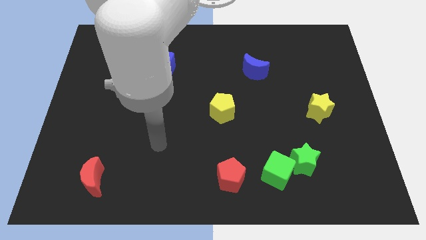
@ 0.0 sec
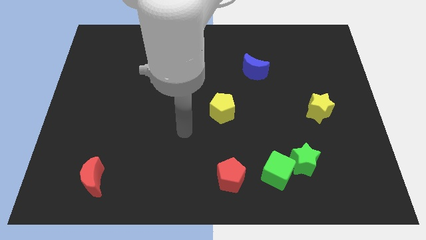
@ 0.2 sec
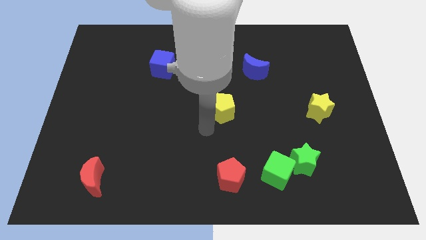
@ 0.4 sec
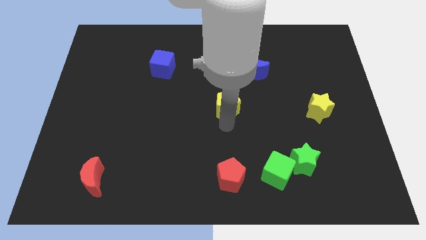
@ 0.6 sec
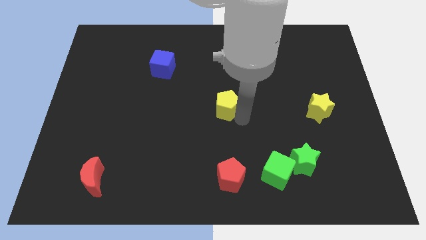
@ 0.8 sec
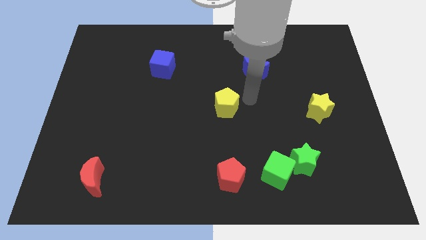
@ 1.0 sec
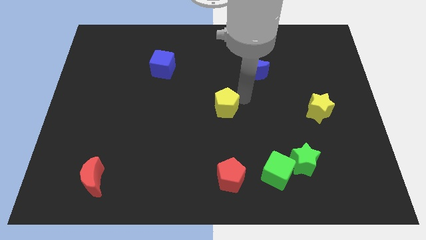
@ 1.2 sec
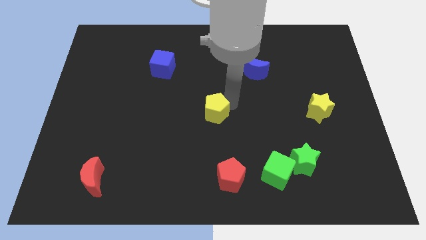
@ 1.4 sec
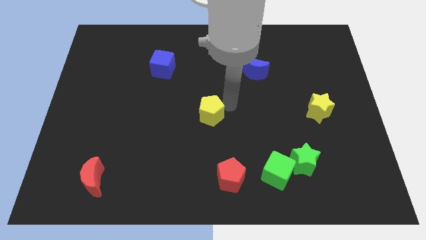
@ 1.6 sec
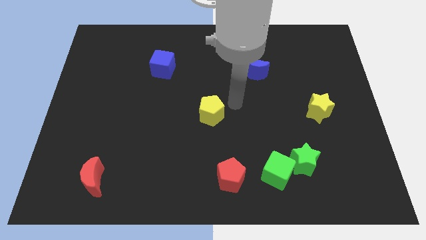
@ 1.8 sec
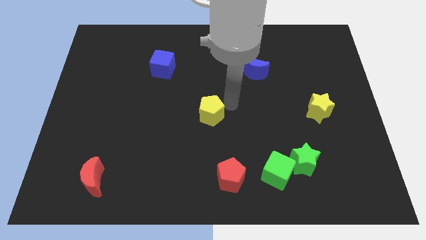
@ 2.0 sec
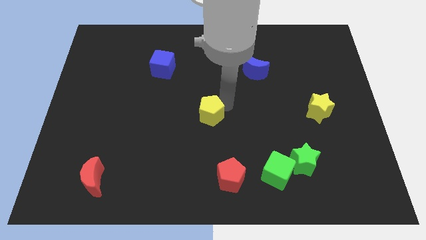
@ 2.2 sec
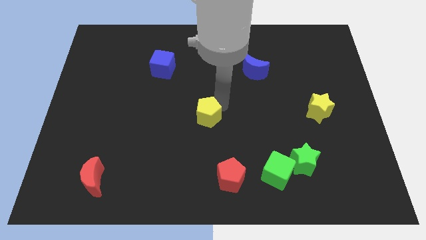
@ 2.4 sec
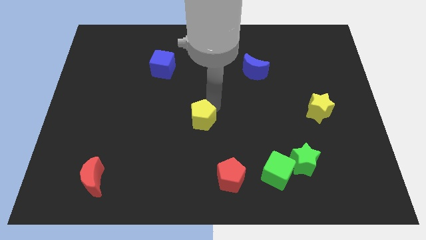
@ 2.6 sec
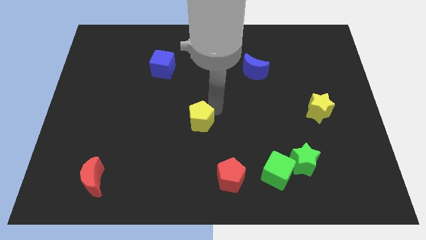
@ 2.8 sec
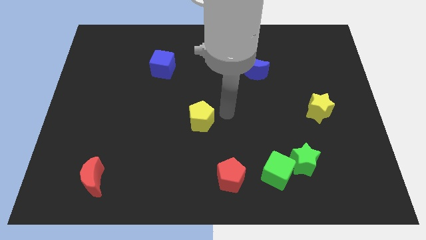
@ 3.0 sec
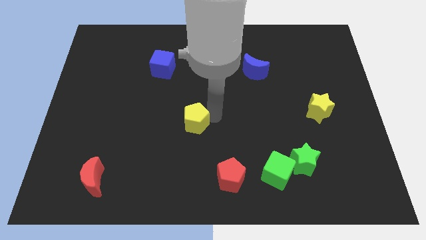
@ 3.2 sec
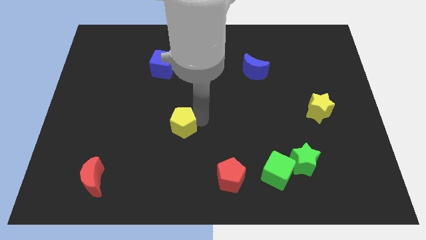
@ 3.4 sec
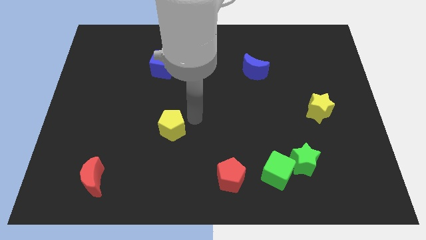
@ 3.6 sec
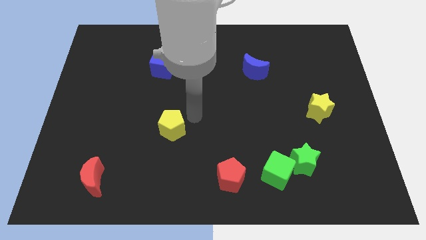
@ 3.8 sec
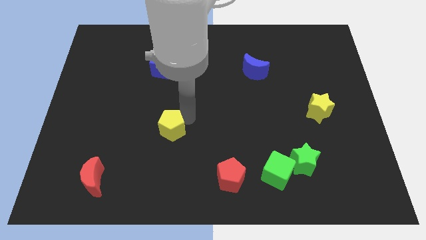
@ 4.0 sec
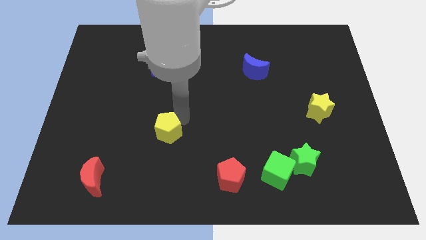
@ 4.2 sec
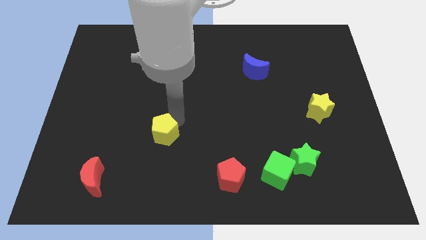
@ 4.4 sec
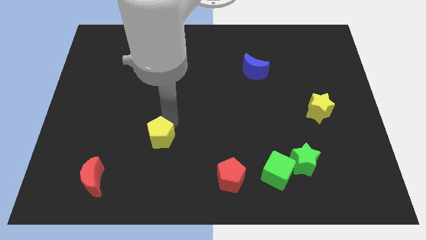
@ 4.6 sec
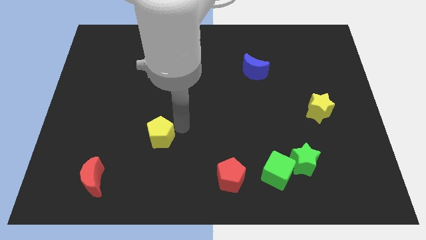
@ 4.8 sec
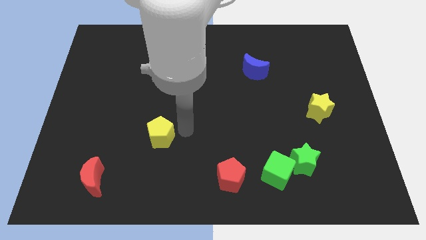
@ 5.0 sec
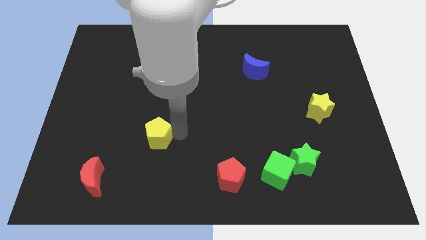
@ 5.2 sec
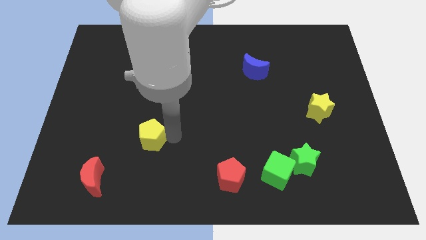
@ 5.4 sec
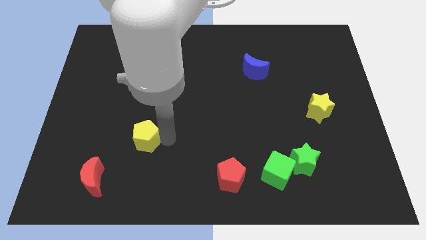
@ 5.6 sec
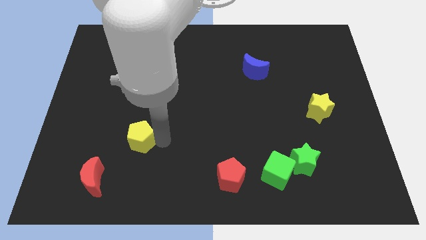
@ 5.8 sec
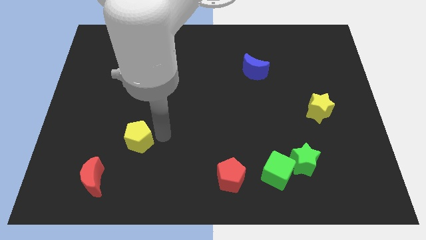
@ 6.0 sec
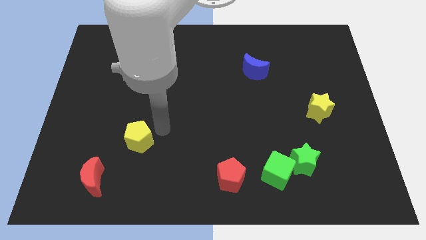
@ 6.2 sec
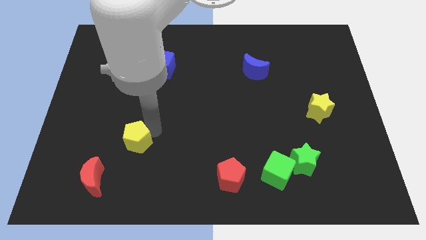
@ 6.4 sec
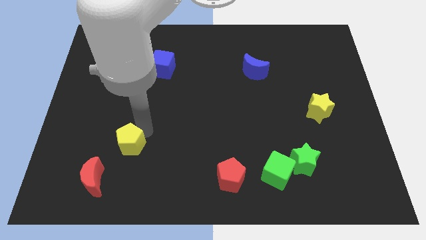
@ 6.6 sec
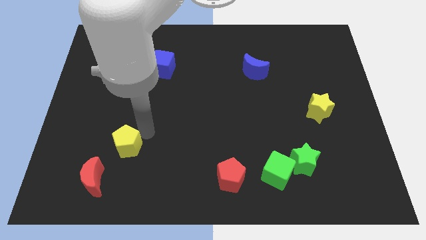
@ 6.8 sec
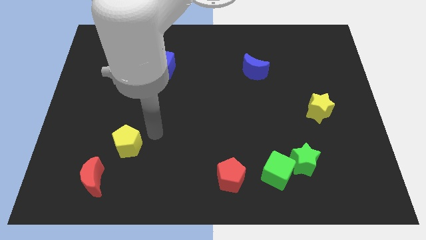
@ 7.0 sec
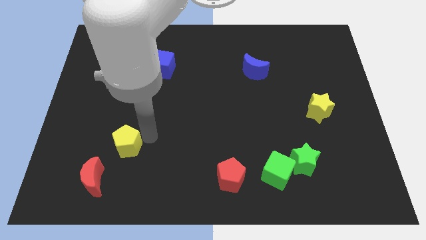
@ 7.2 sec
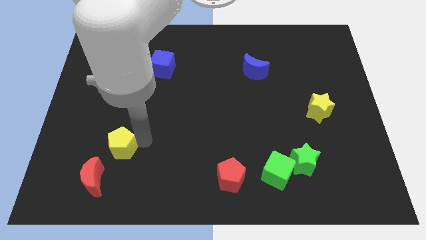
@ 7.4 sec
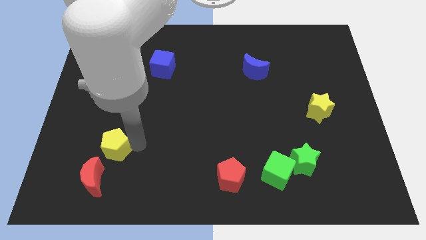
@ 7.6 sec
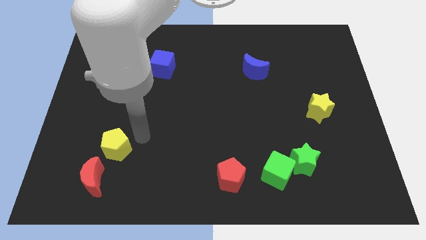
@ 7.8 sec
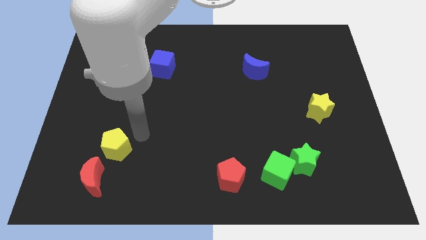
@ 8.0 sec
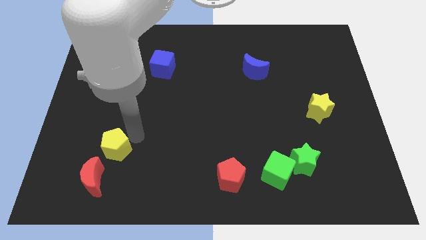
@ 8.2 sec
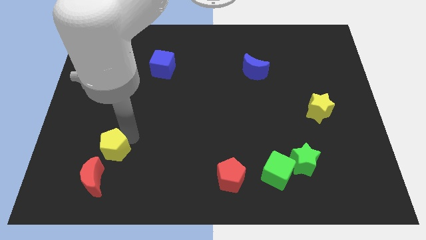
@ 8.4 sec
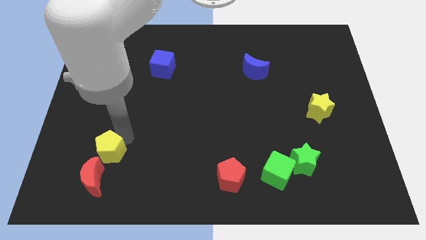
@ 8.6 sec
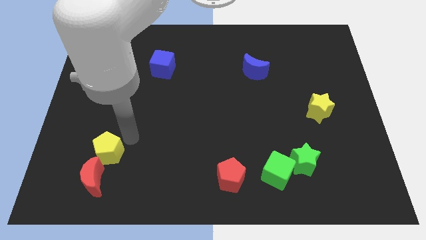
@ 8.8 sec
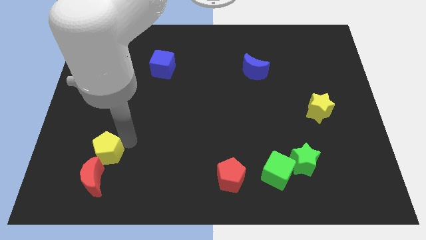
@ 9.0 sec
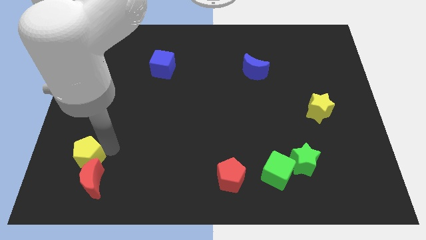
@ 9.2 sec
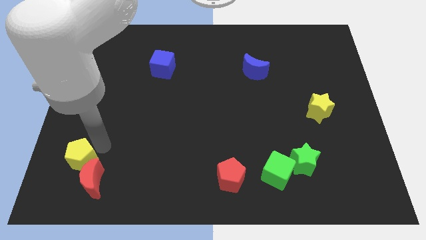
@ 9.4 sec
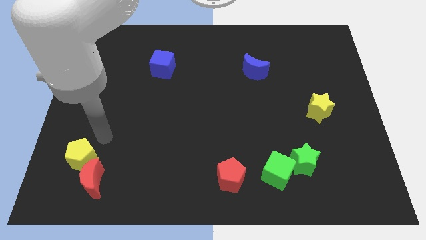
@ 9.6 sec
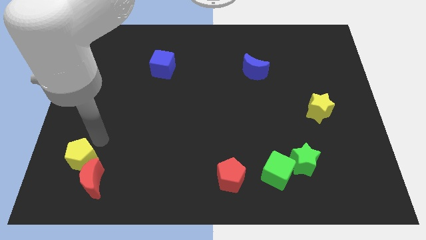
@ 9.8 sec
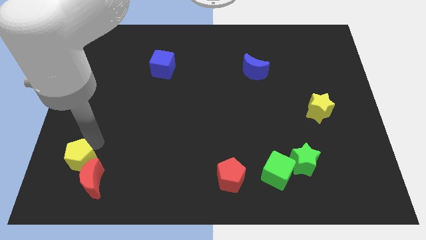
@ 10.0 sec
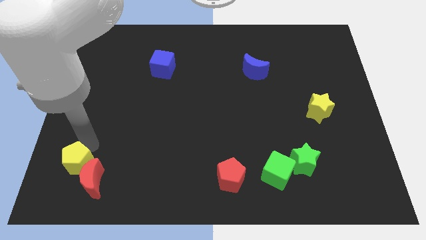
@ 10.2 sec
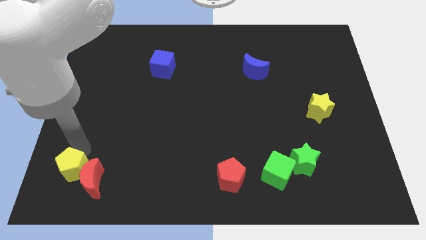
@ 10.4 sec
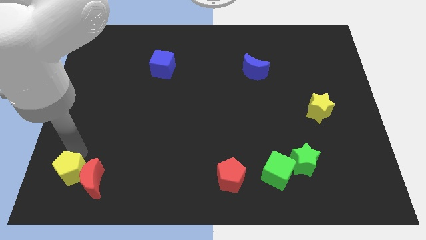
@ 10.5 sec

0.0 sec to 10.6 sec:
slide the yellow pentagon to the bottom left of the board
